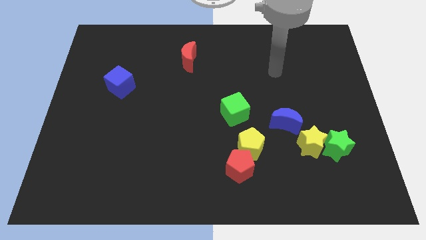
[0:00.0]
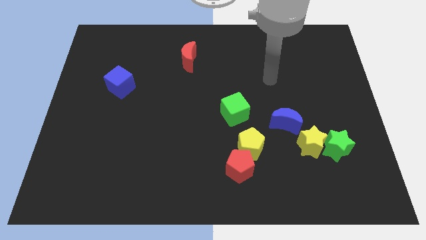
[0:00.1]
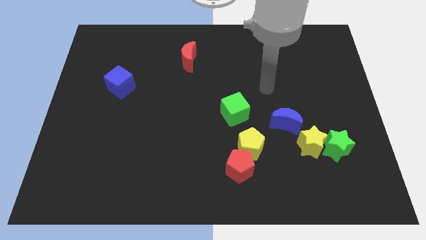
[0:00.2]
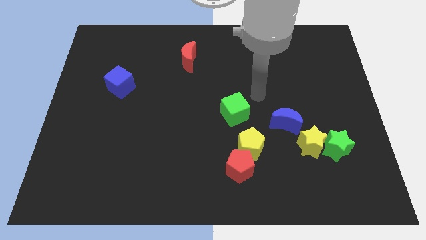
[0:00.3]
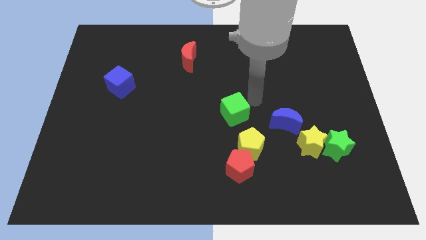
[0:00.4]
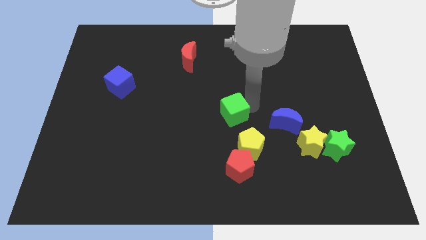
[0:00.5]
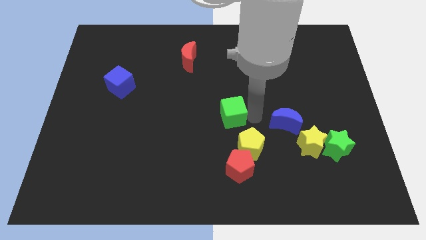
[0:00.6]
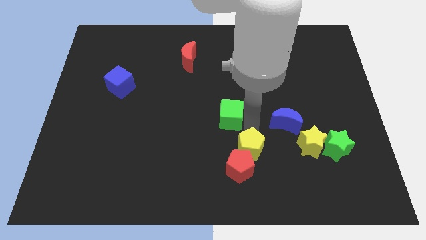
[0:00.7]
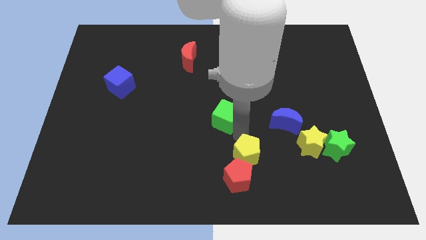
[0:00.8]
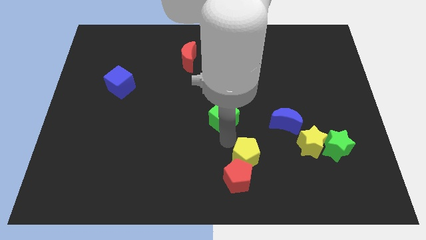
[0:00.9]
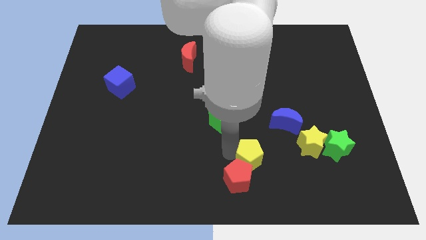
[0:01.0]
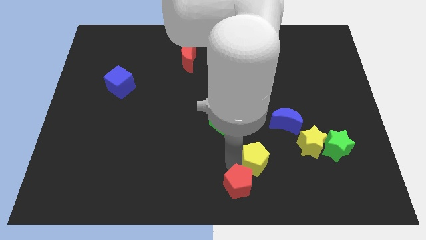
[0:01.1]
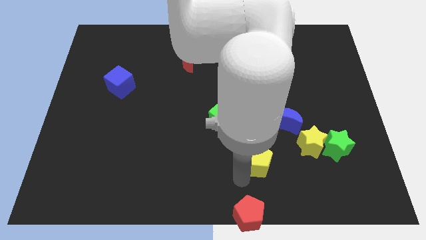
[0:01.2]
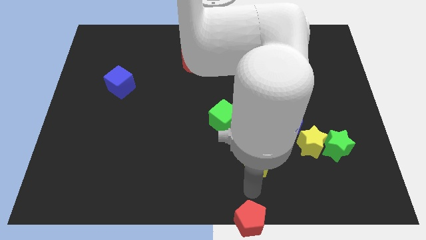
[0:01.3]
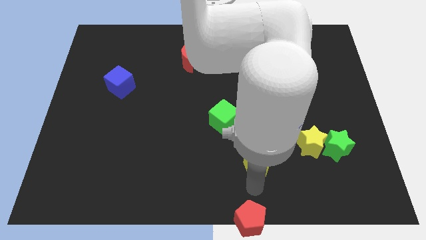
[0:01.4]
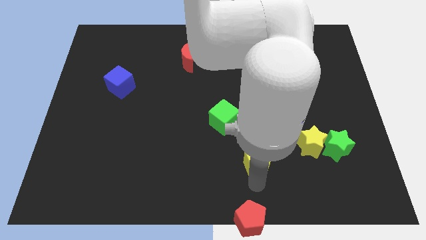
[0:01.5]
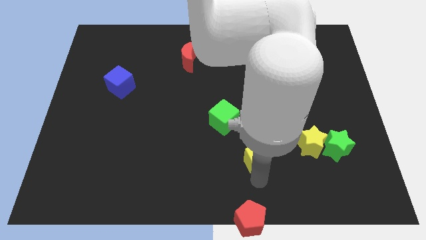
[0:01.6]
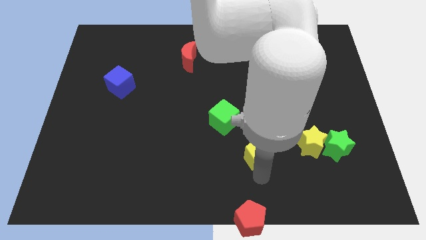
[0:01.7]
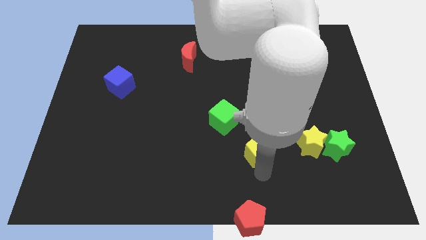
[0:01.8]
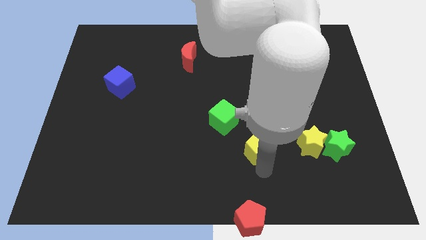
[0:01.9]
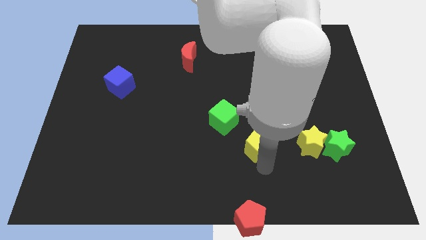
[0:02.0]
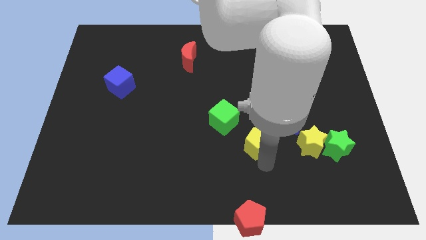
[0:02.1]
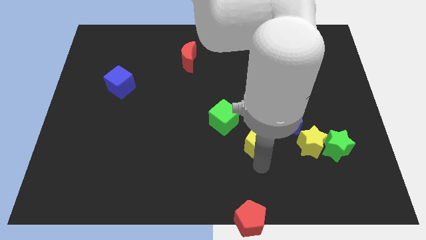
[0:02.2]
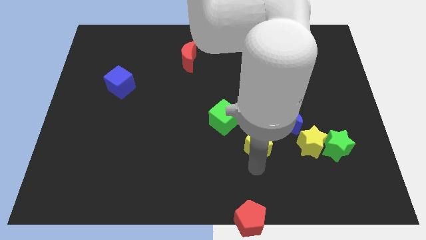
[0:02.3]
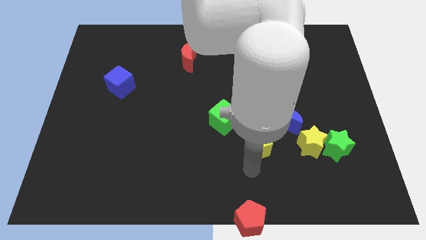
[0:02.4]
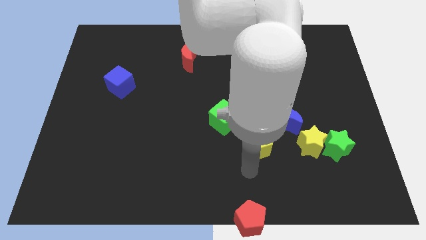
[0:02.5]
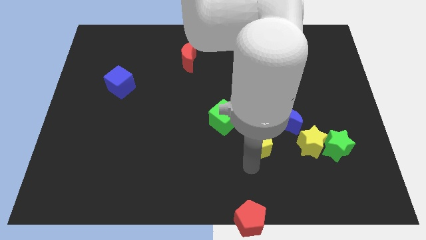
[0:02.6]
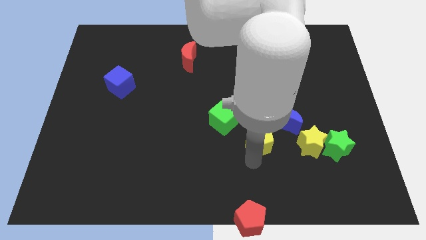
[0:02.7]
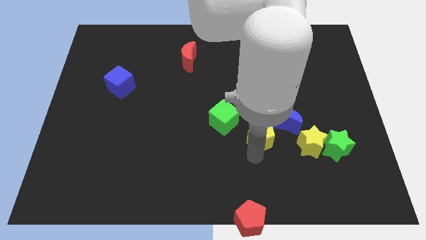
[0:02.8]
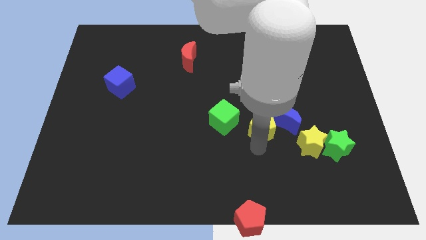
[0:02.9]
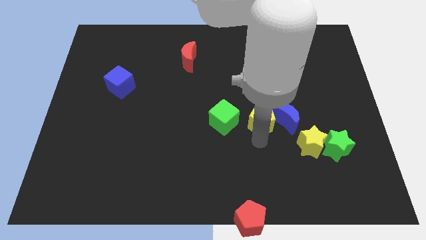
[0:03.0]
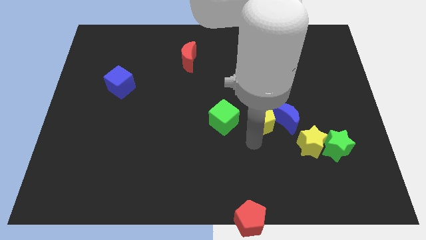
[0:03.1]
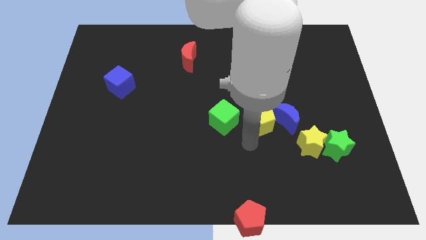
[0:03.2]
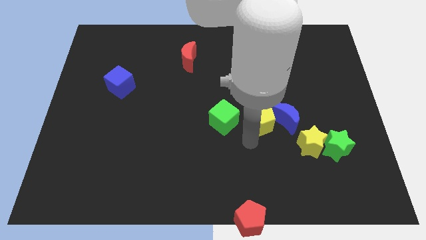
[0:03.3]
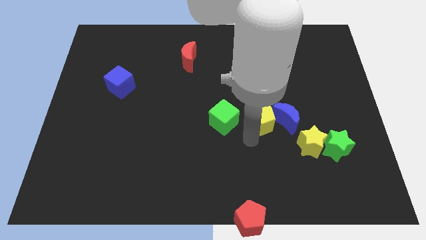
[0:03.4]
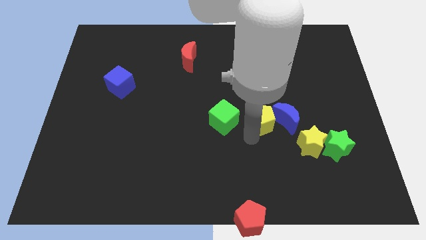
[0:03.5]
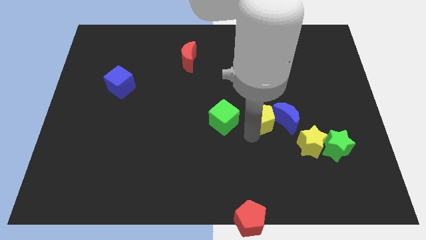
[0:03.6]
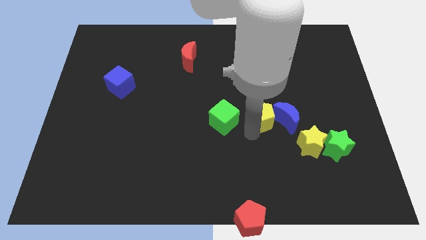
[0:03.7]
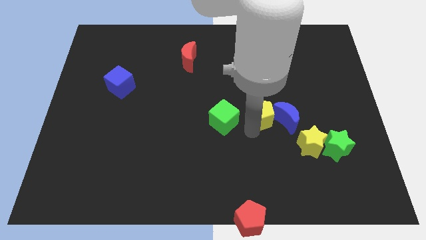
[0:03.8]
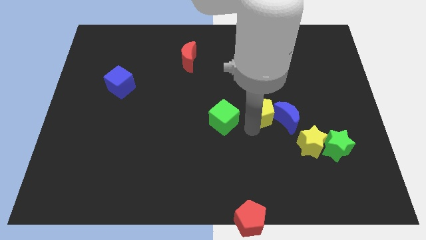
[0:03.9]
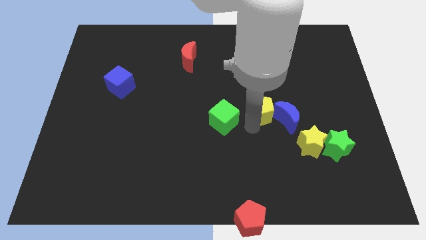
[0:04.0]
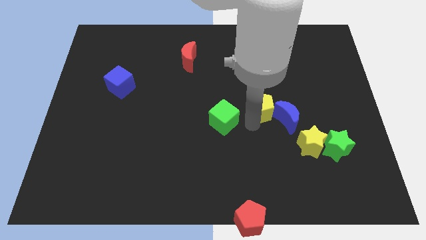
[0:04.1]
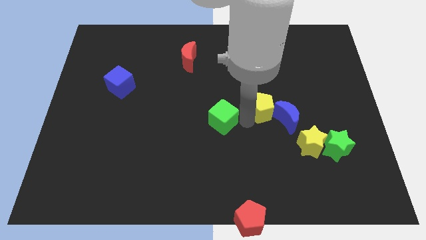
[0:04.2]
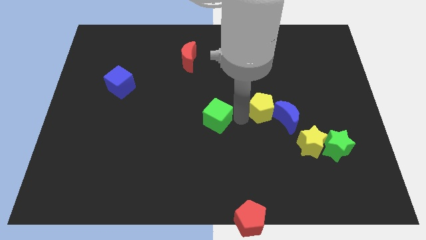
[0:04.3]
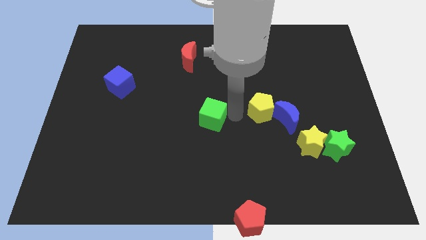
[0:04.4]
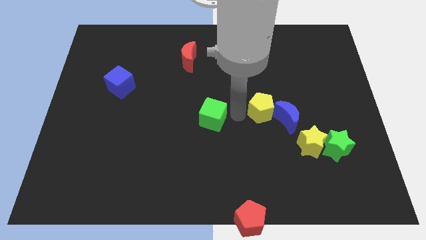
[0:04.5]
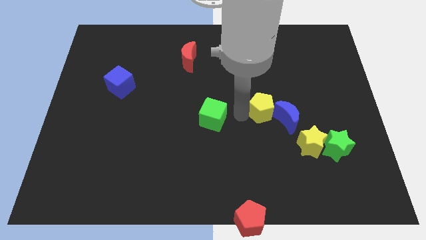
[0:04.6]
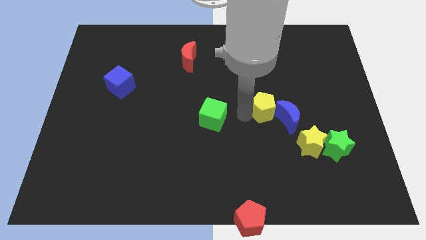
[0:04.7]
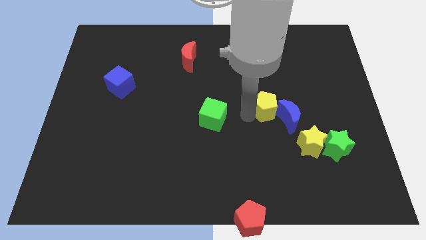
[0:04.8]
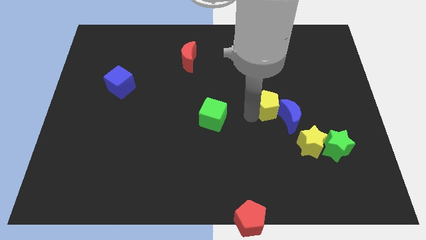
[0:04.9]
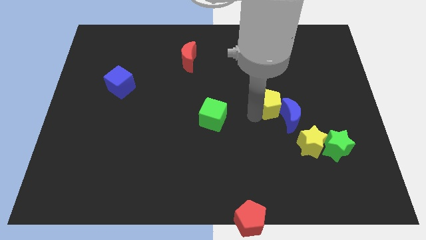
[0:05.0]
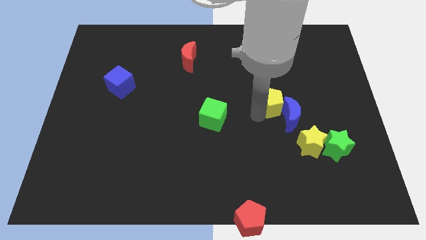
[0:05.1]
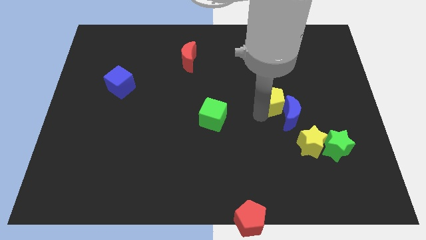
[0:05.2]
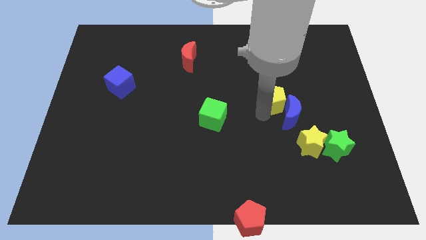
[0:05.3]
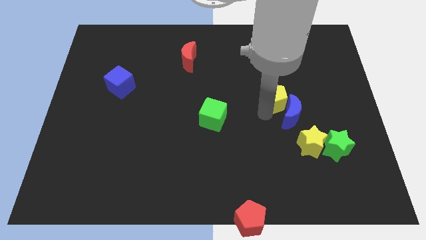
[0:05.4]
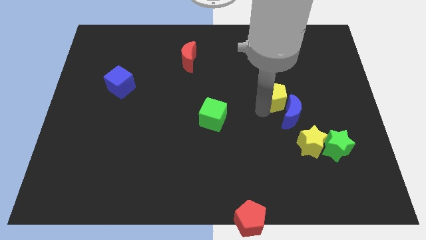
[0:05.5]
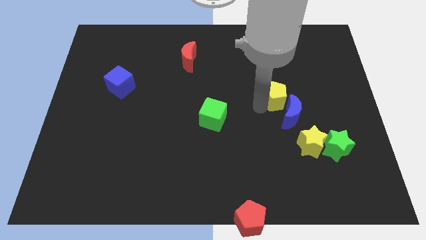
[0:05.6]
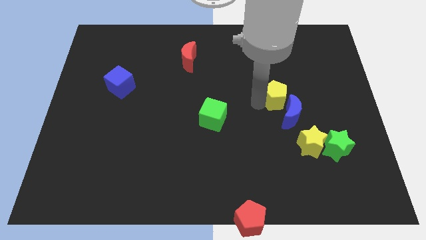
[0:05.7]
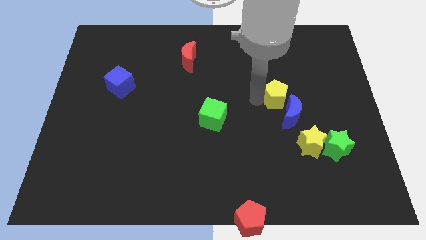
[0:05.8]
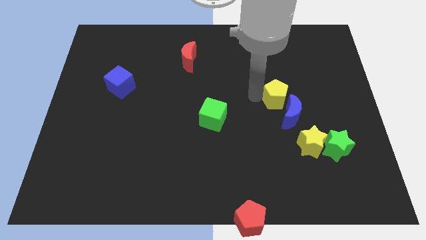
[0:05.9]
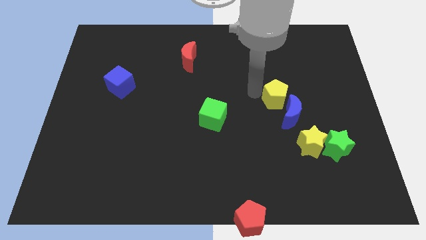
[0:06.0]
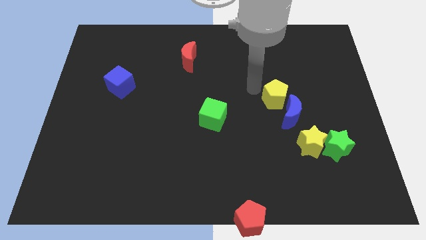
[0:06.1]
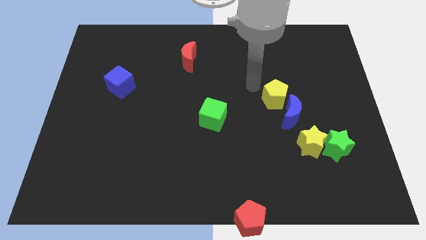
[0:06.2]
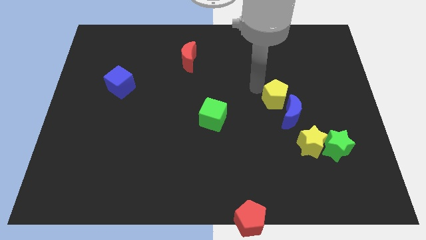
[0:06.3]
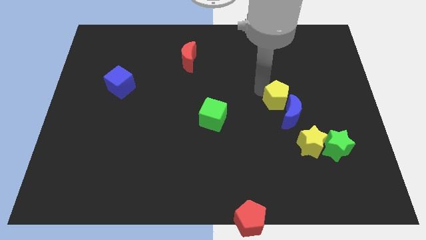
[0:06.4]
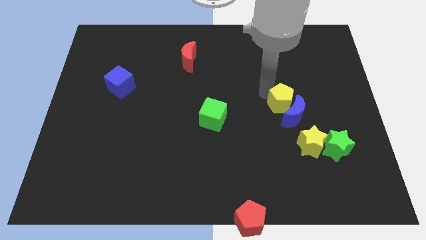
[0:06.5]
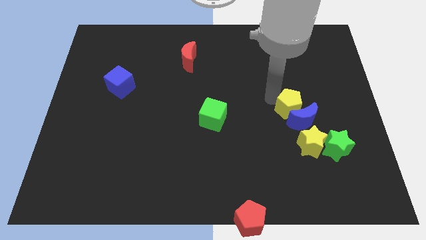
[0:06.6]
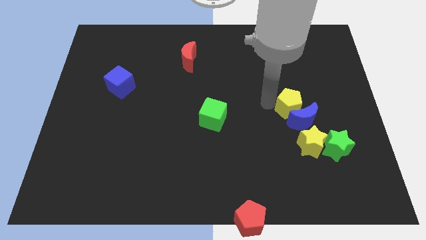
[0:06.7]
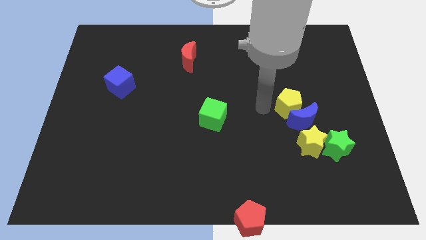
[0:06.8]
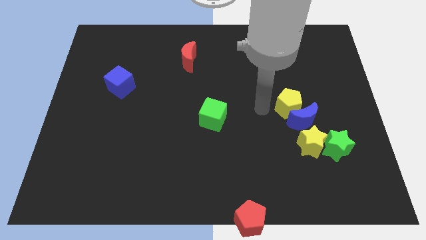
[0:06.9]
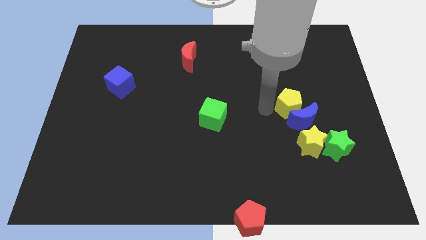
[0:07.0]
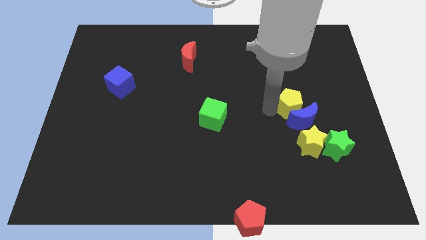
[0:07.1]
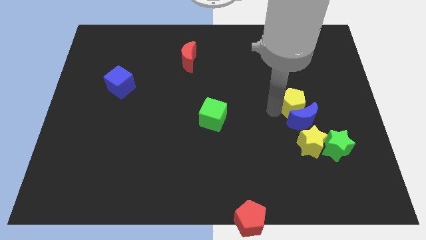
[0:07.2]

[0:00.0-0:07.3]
put the yellow pentagon to the top right of the blue moon
